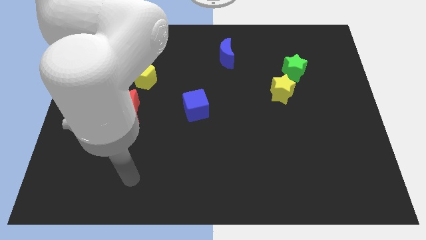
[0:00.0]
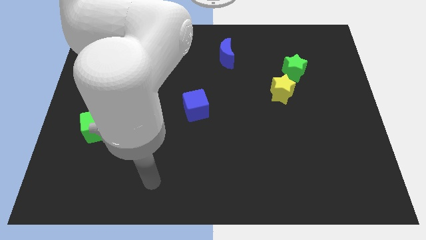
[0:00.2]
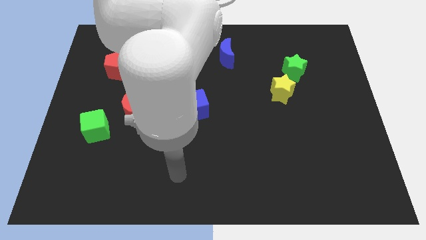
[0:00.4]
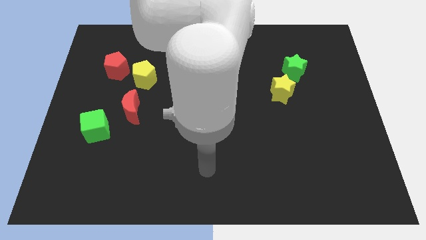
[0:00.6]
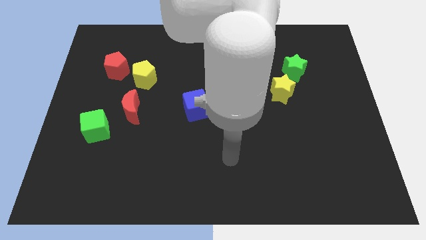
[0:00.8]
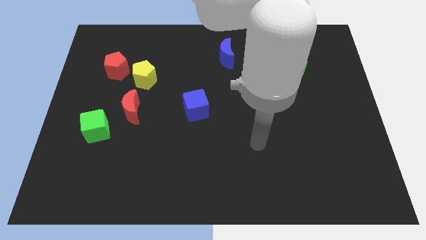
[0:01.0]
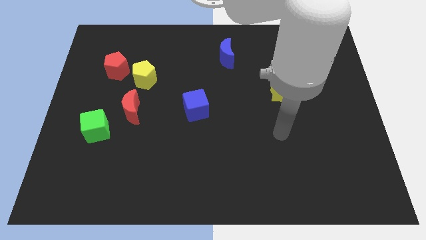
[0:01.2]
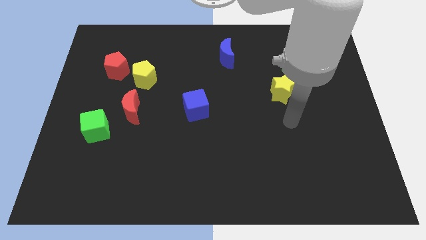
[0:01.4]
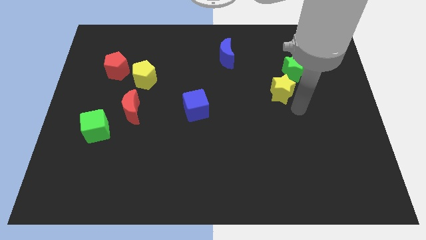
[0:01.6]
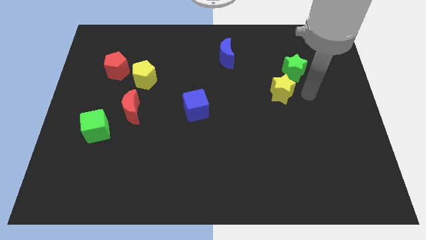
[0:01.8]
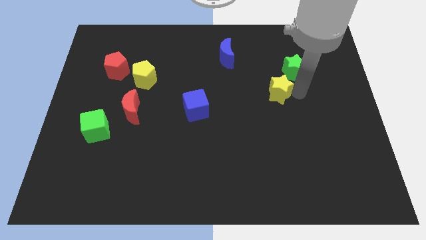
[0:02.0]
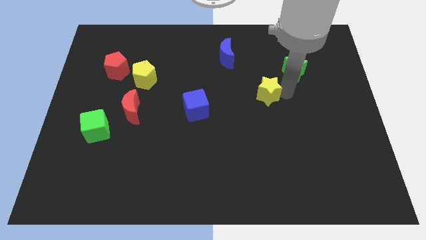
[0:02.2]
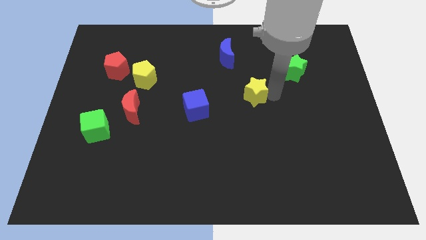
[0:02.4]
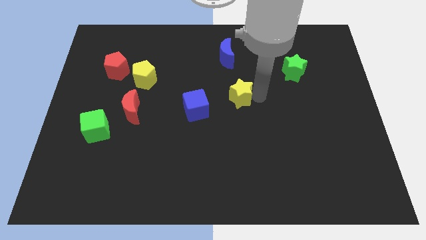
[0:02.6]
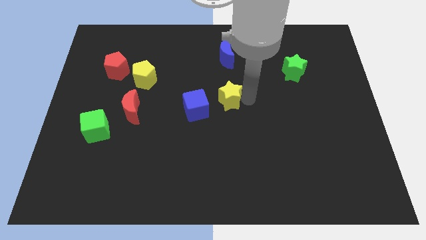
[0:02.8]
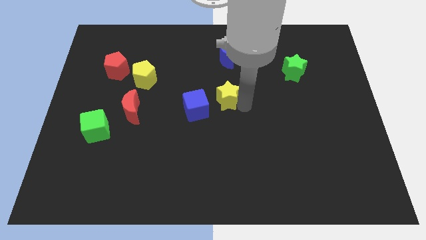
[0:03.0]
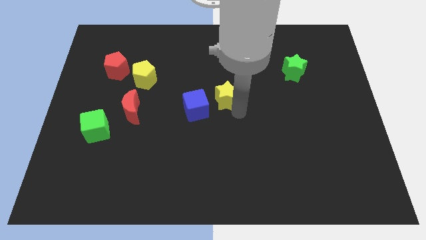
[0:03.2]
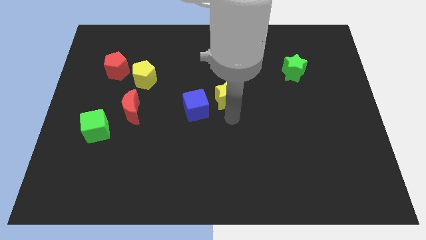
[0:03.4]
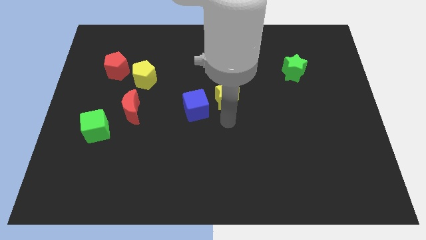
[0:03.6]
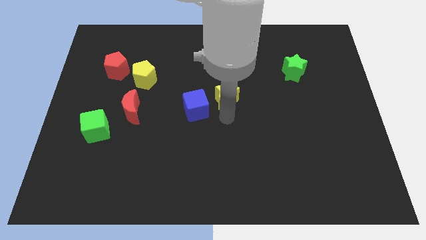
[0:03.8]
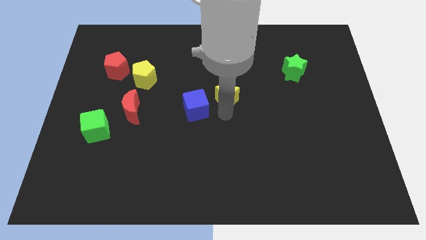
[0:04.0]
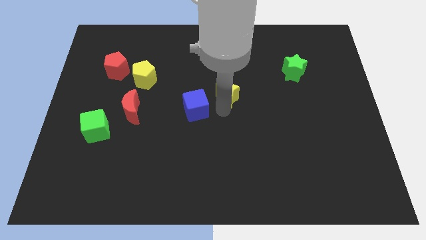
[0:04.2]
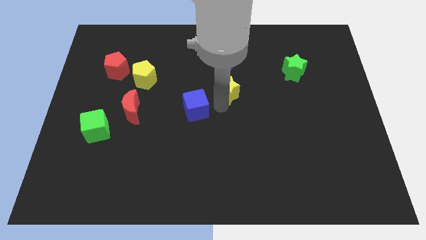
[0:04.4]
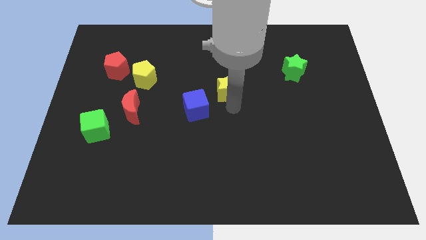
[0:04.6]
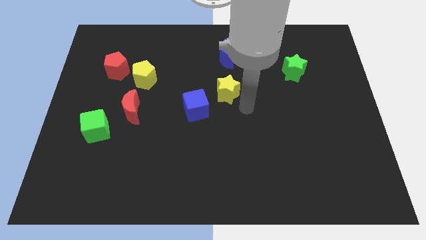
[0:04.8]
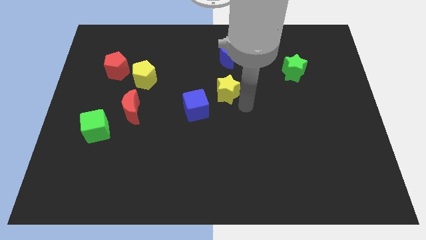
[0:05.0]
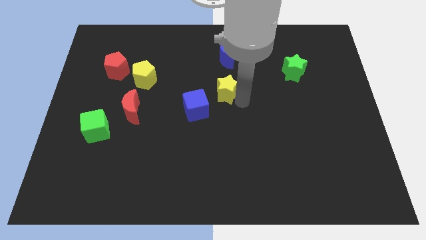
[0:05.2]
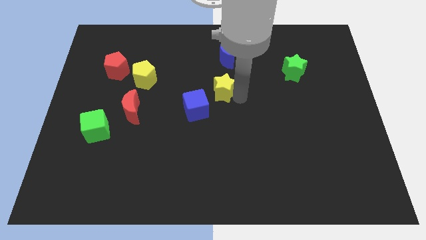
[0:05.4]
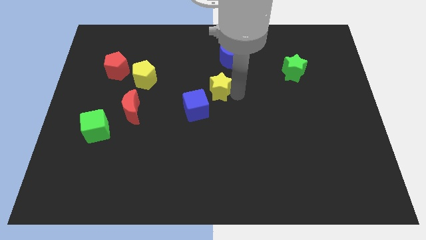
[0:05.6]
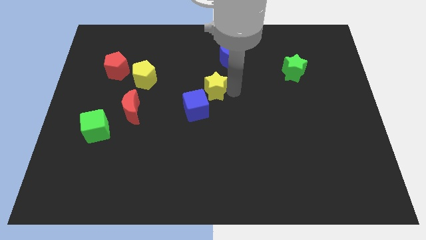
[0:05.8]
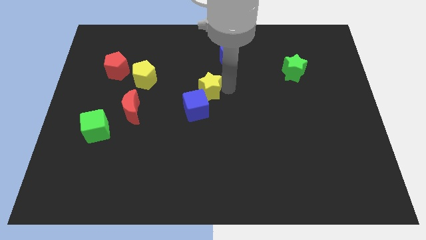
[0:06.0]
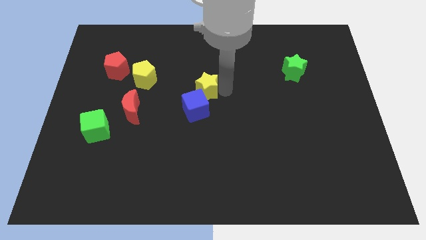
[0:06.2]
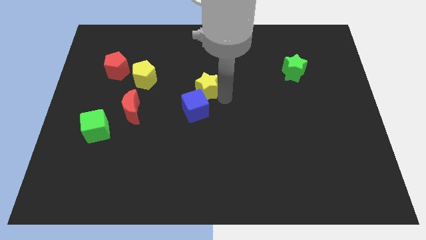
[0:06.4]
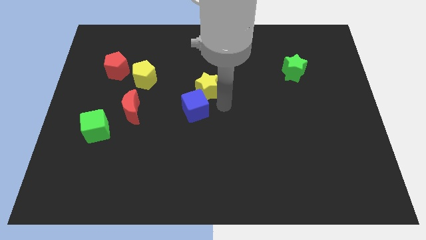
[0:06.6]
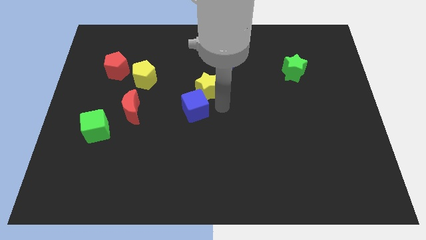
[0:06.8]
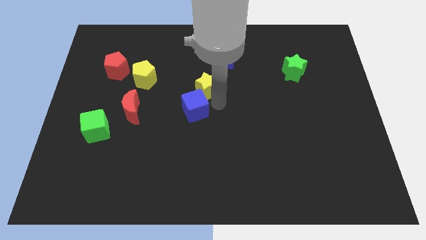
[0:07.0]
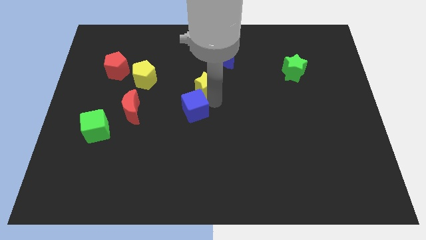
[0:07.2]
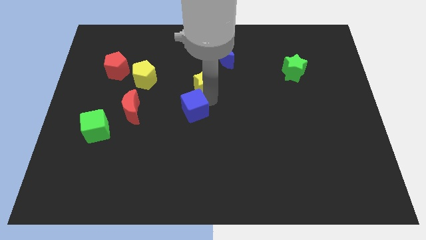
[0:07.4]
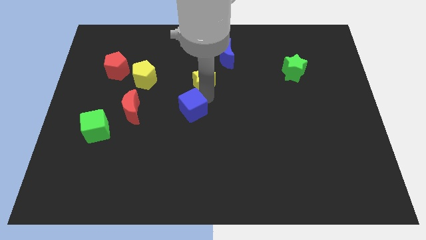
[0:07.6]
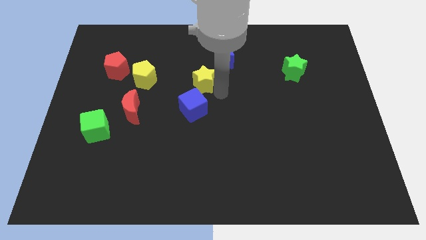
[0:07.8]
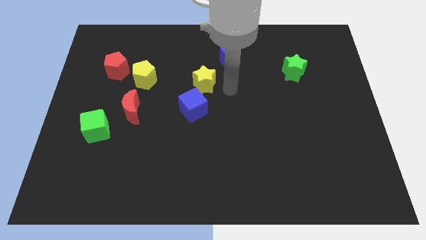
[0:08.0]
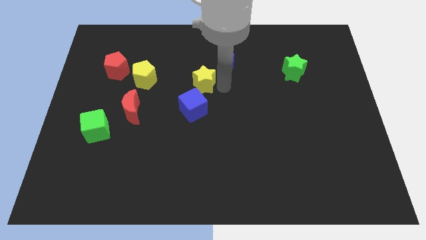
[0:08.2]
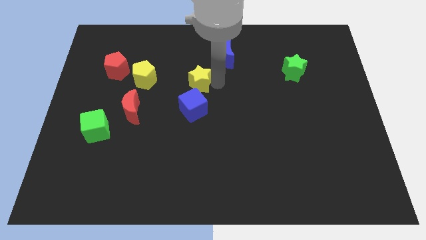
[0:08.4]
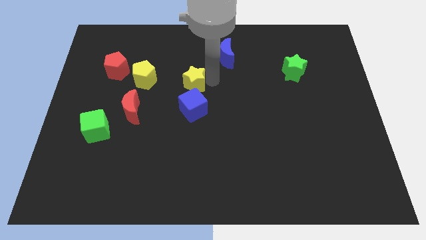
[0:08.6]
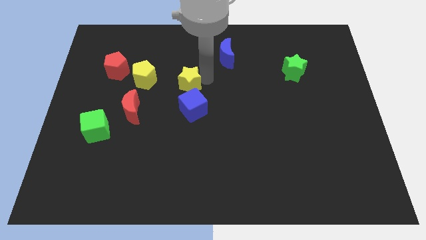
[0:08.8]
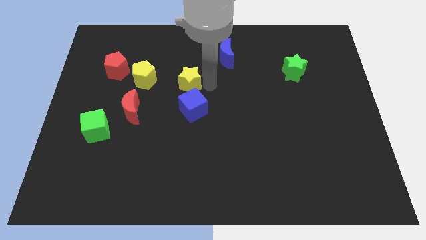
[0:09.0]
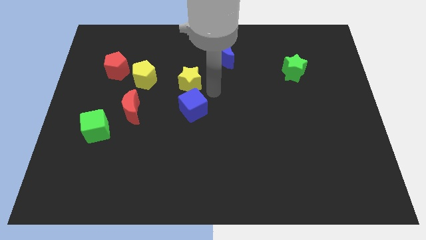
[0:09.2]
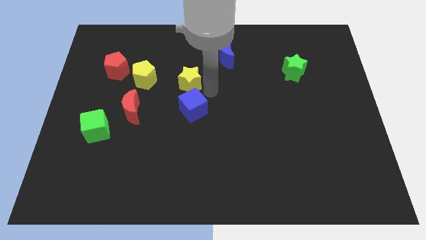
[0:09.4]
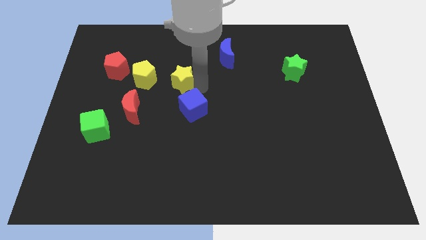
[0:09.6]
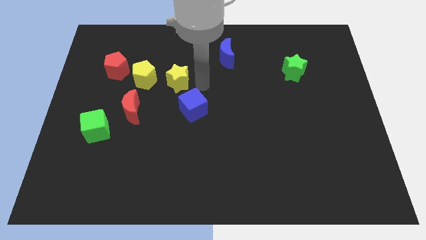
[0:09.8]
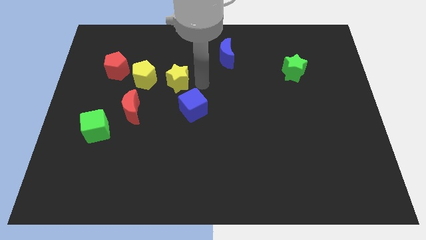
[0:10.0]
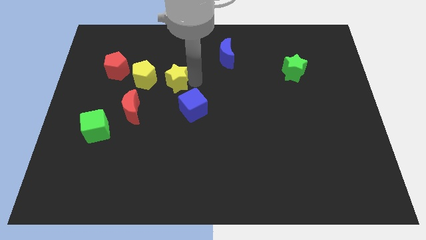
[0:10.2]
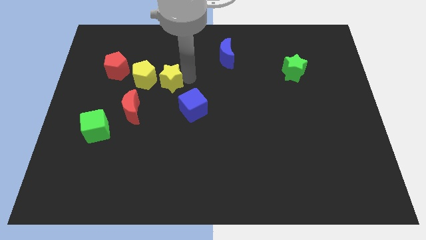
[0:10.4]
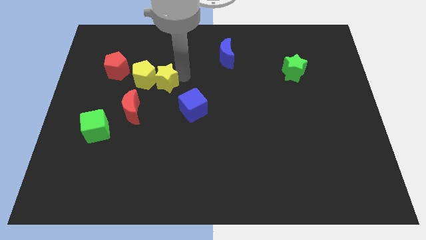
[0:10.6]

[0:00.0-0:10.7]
move the yellow star to the yellow pentagon

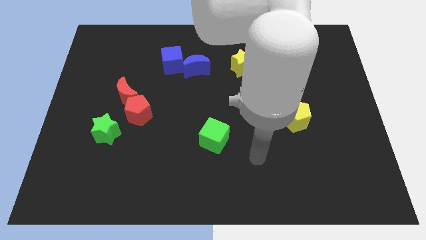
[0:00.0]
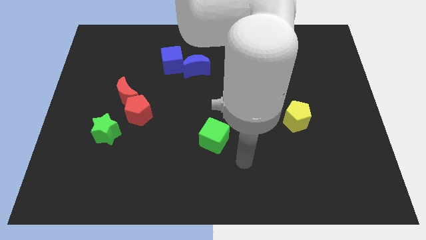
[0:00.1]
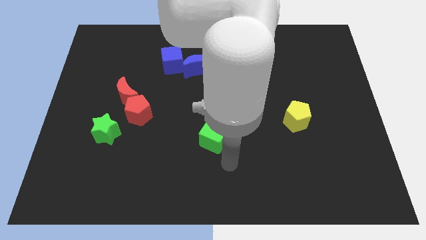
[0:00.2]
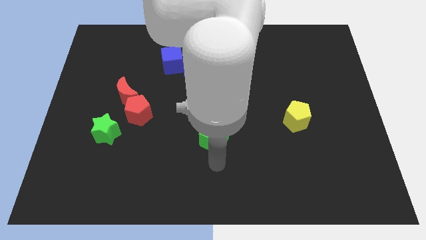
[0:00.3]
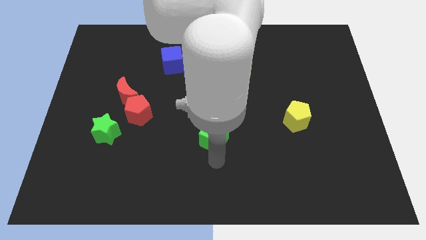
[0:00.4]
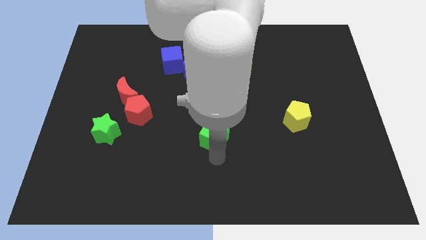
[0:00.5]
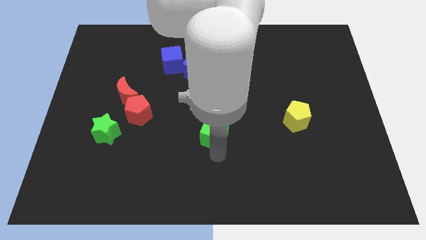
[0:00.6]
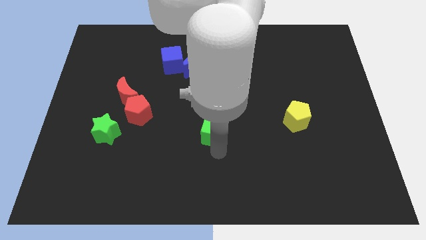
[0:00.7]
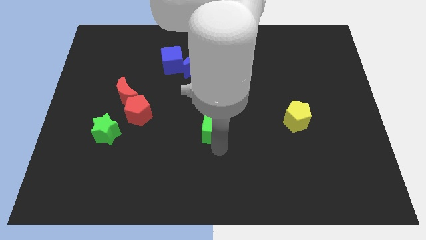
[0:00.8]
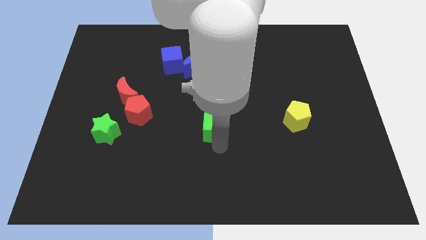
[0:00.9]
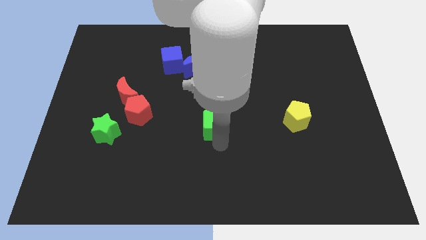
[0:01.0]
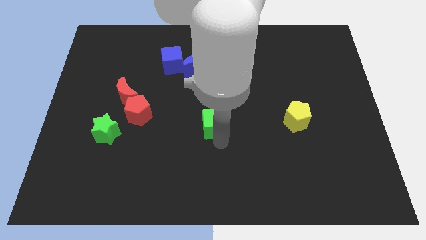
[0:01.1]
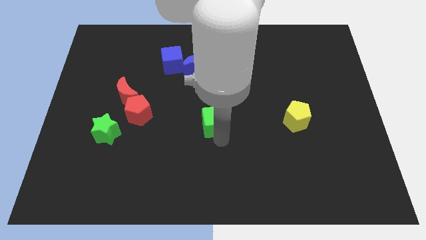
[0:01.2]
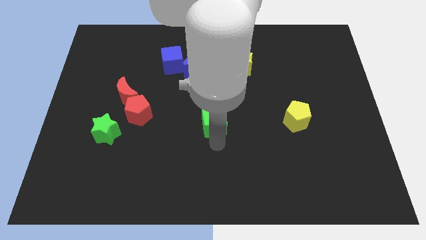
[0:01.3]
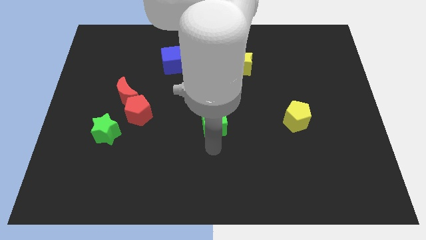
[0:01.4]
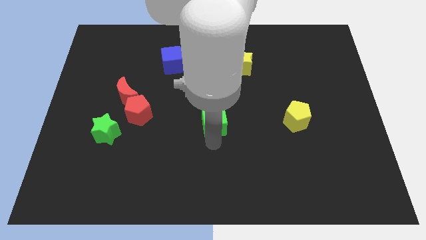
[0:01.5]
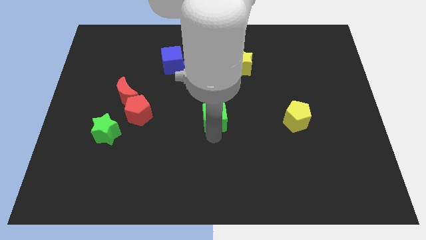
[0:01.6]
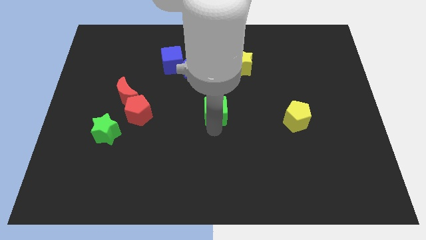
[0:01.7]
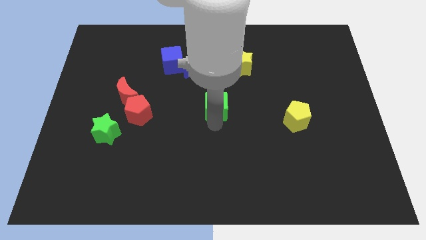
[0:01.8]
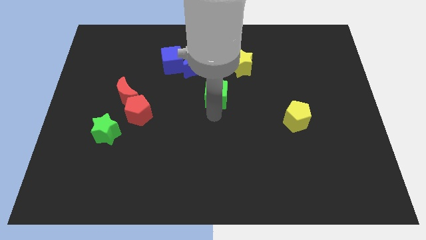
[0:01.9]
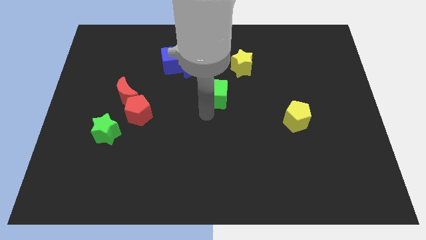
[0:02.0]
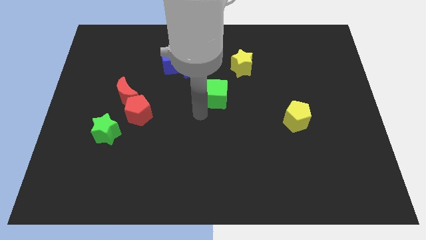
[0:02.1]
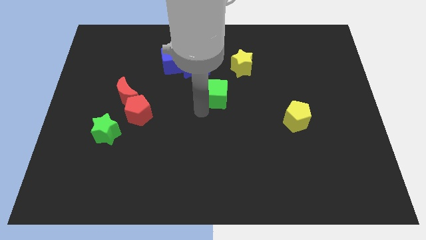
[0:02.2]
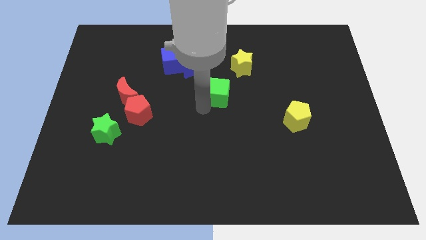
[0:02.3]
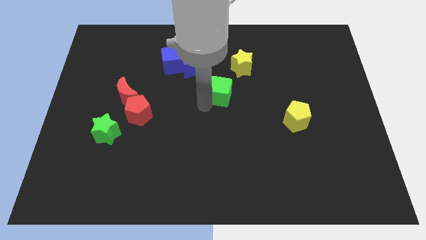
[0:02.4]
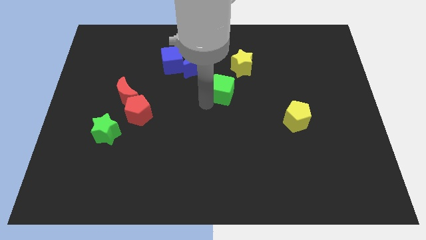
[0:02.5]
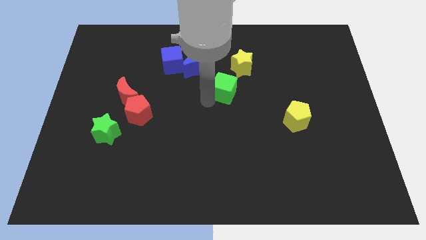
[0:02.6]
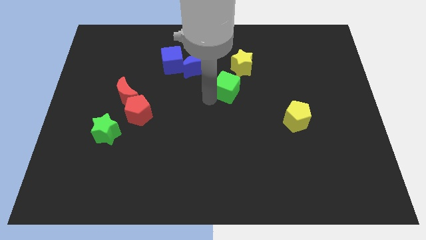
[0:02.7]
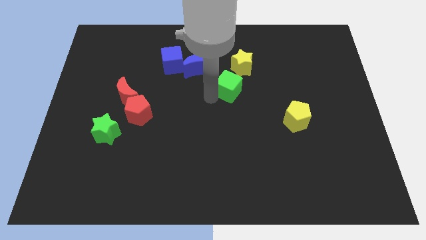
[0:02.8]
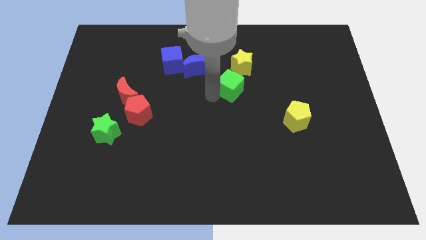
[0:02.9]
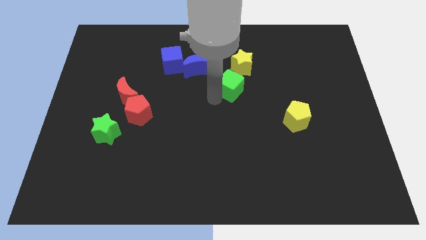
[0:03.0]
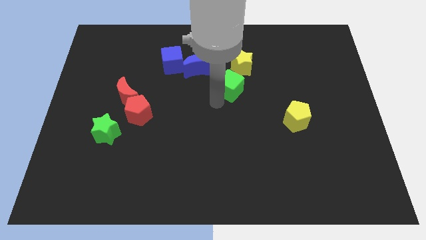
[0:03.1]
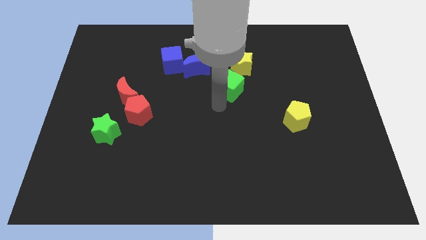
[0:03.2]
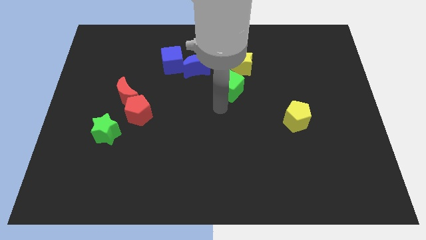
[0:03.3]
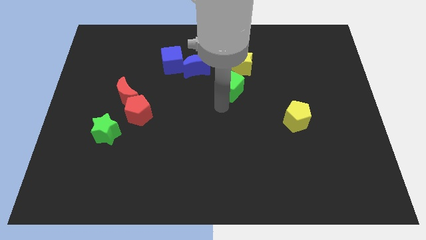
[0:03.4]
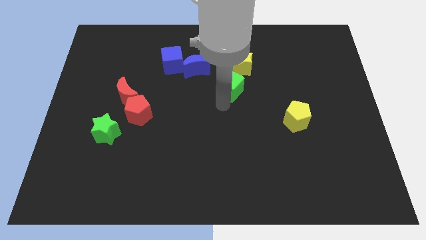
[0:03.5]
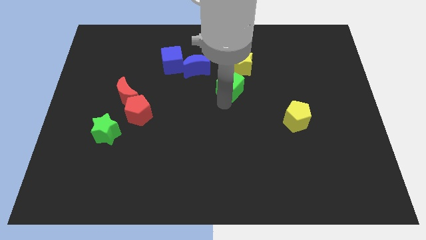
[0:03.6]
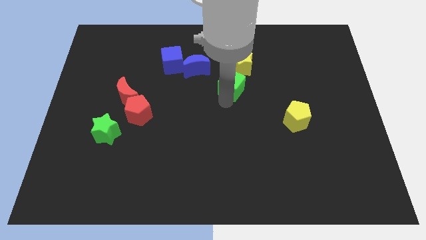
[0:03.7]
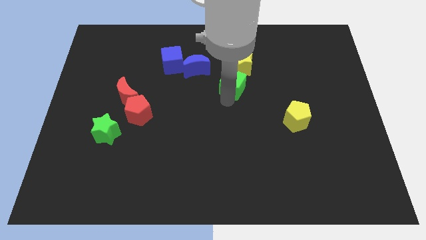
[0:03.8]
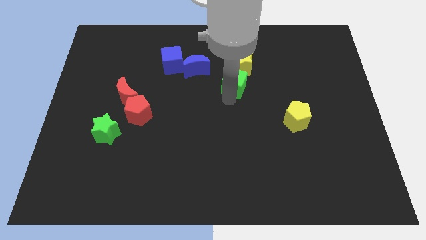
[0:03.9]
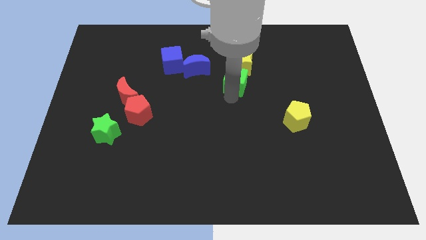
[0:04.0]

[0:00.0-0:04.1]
slide the green cube next to the yellow star
